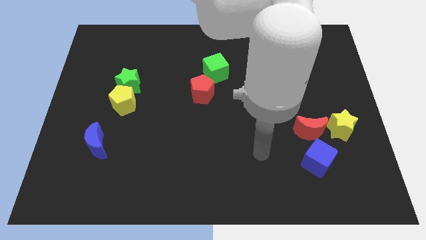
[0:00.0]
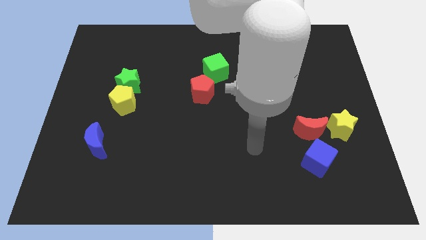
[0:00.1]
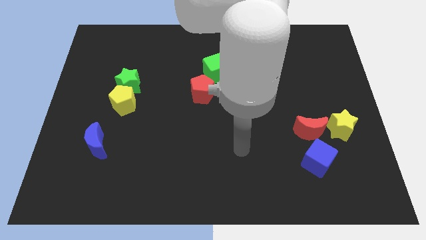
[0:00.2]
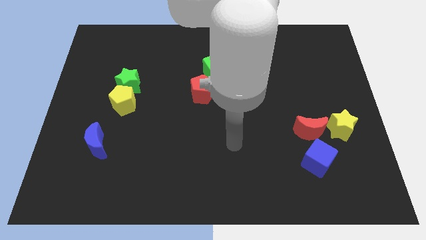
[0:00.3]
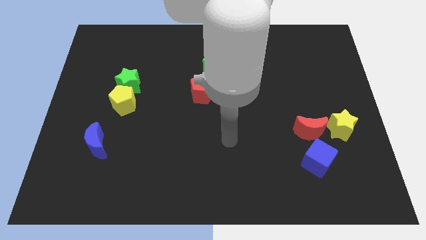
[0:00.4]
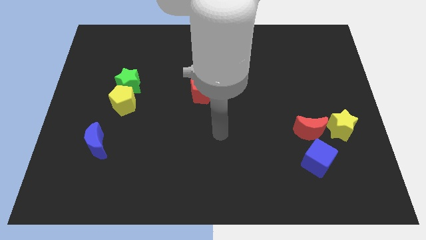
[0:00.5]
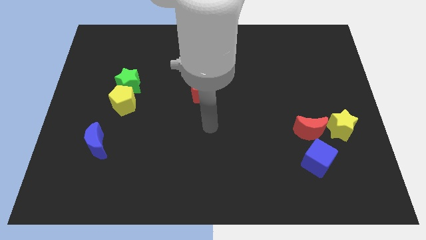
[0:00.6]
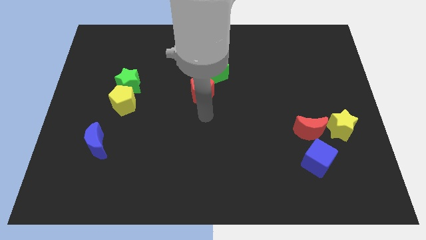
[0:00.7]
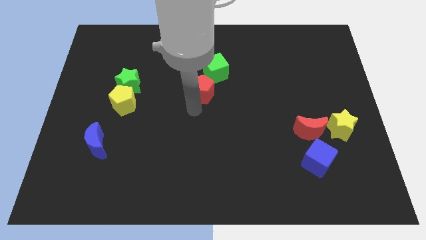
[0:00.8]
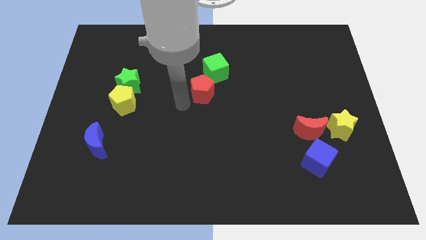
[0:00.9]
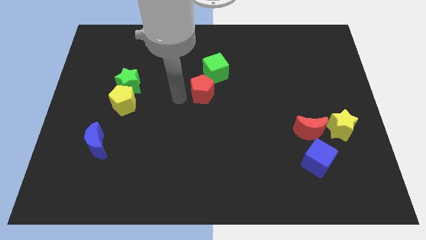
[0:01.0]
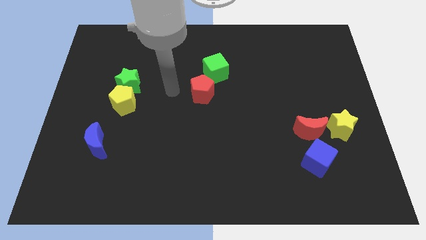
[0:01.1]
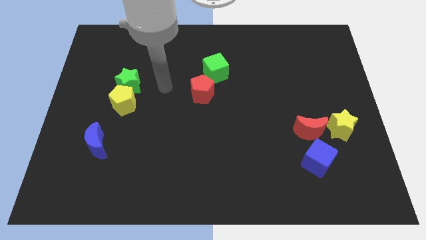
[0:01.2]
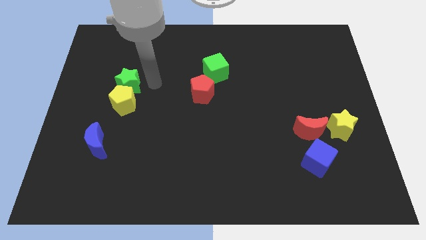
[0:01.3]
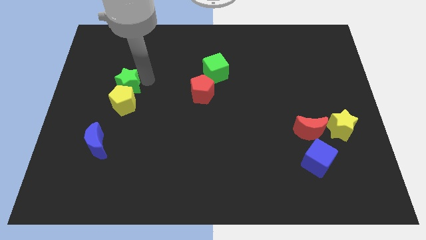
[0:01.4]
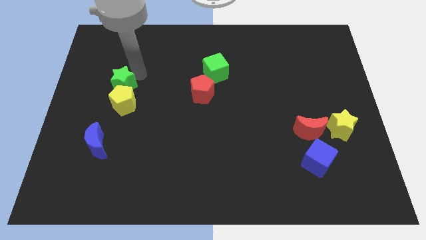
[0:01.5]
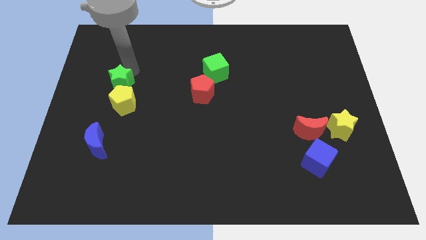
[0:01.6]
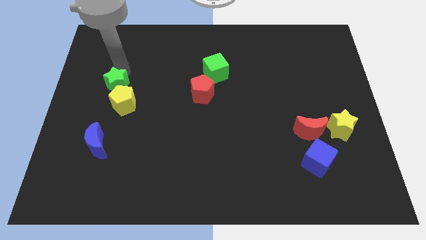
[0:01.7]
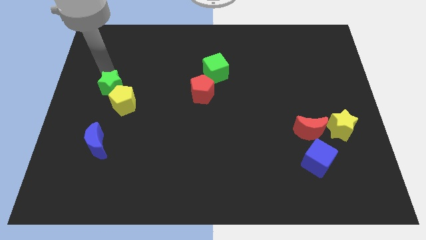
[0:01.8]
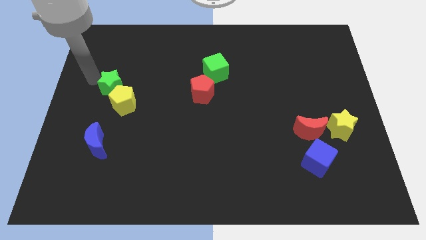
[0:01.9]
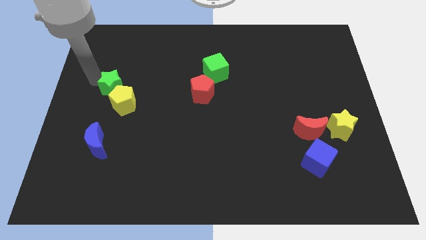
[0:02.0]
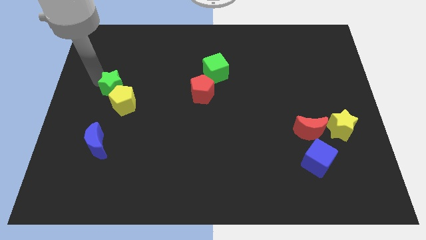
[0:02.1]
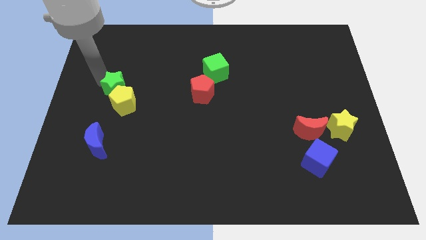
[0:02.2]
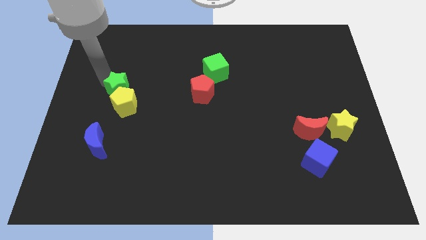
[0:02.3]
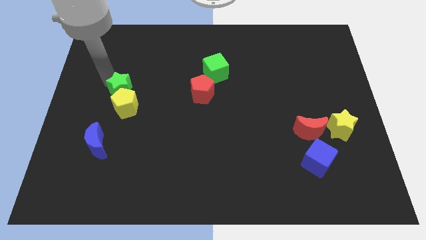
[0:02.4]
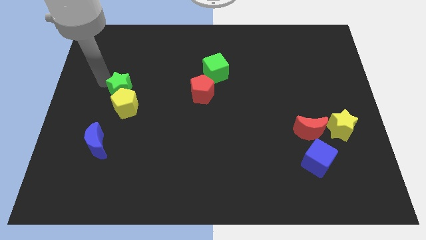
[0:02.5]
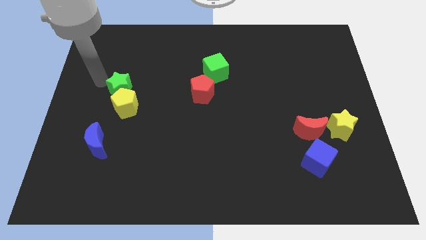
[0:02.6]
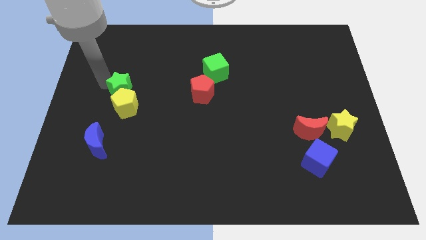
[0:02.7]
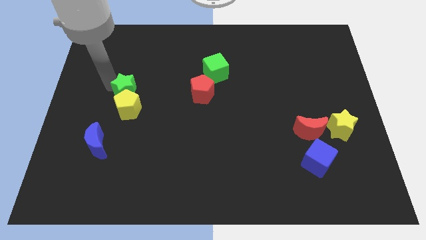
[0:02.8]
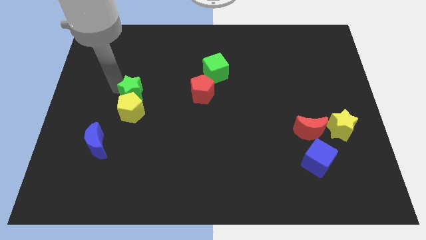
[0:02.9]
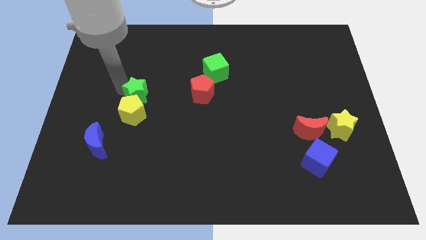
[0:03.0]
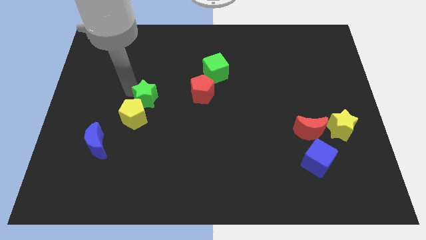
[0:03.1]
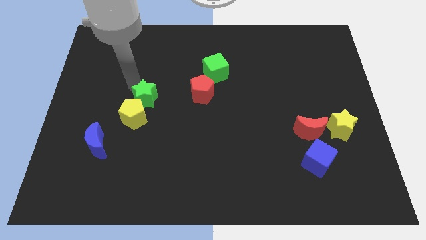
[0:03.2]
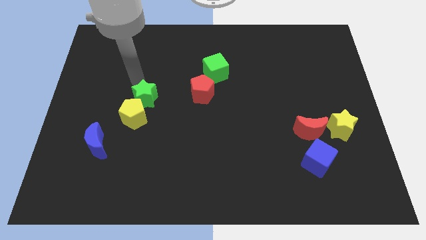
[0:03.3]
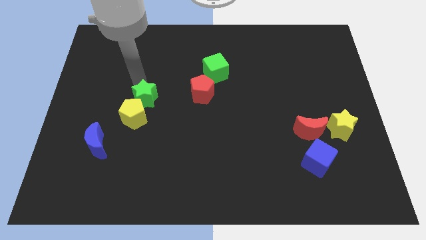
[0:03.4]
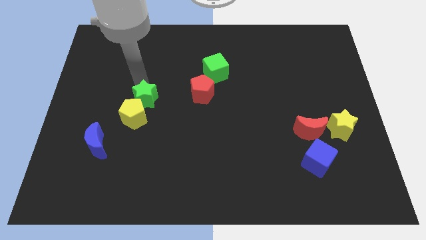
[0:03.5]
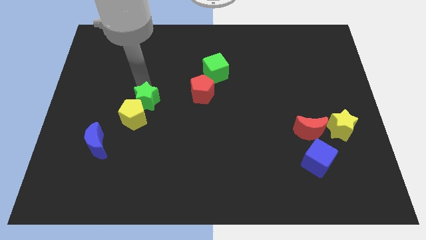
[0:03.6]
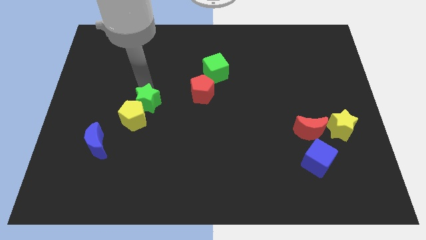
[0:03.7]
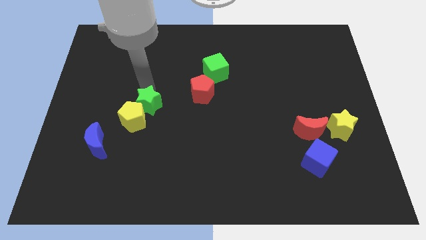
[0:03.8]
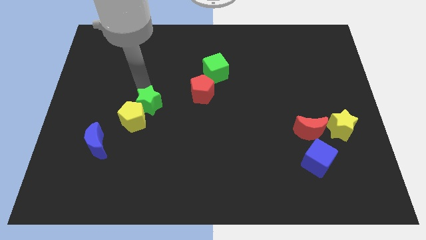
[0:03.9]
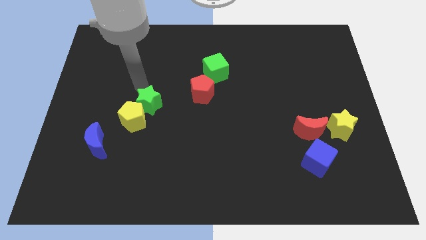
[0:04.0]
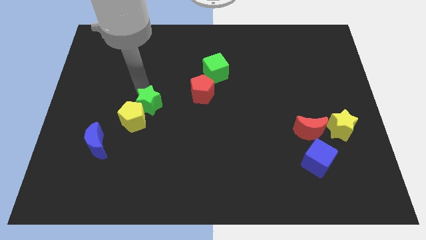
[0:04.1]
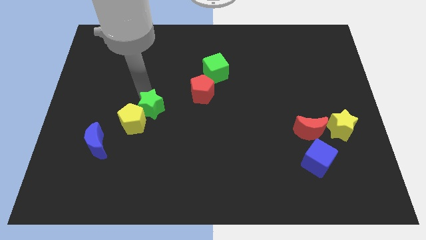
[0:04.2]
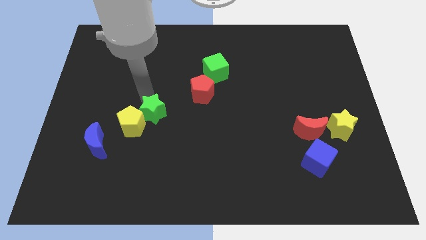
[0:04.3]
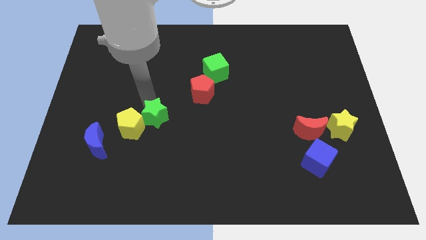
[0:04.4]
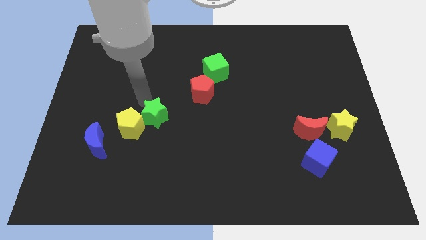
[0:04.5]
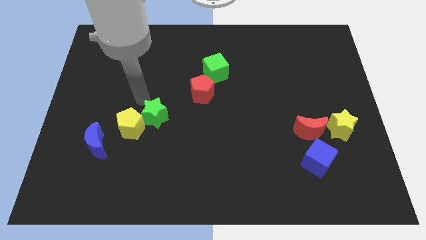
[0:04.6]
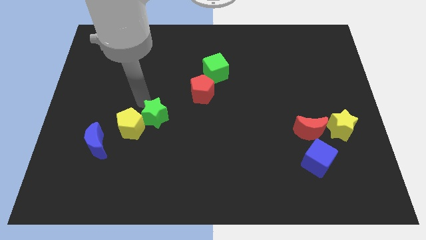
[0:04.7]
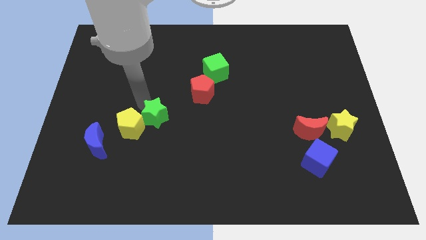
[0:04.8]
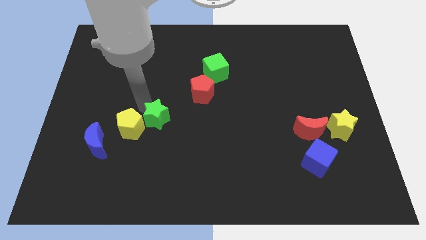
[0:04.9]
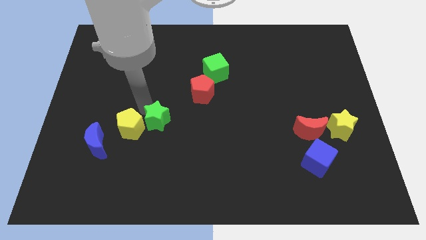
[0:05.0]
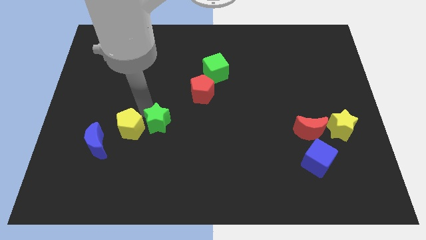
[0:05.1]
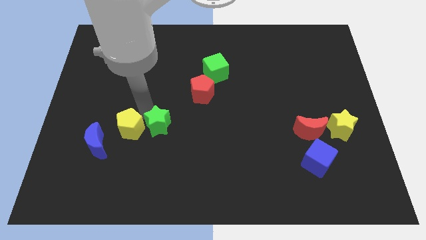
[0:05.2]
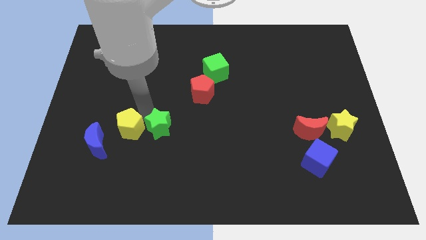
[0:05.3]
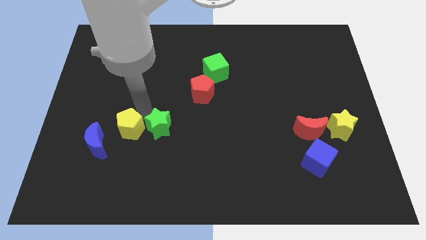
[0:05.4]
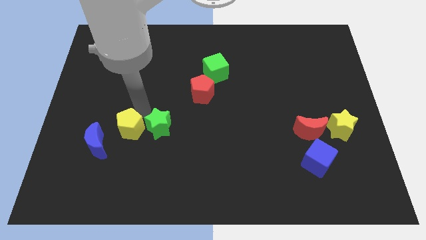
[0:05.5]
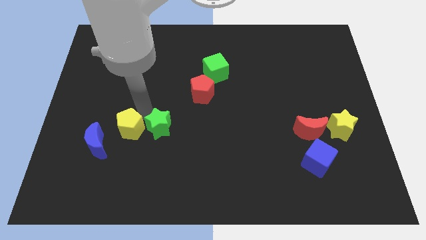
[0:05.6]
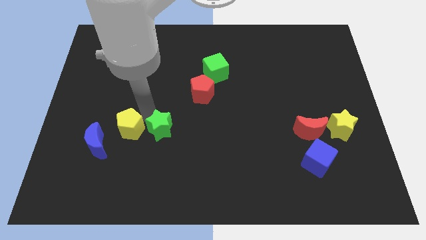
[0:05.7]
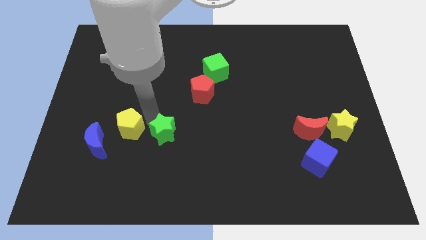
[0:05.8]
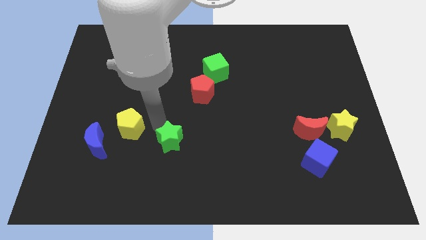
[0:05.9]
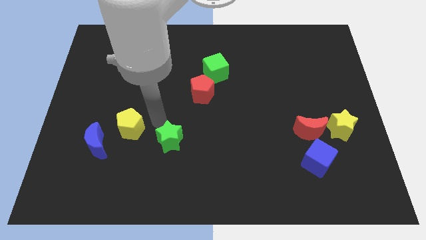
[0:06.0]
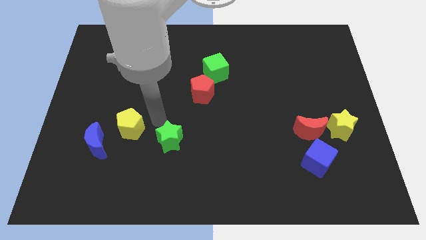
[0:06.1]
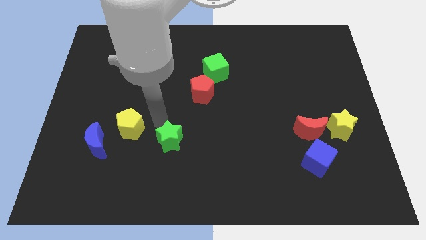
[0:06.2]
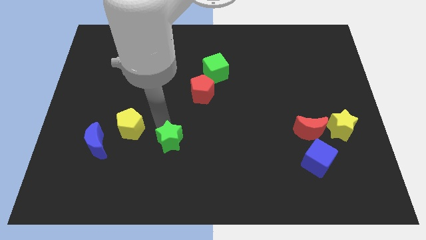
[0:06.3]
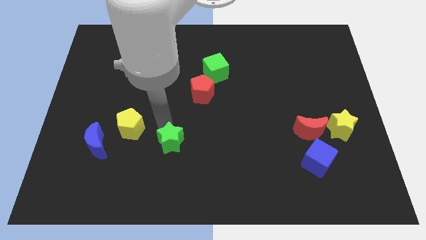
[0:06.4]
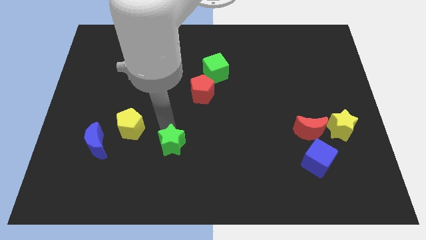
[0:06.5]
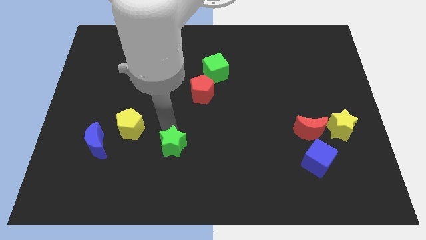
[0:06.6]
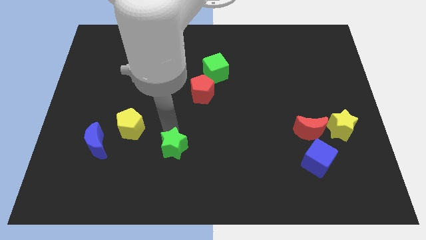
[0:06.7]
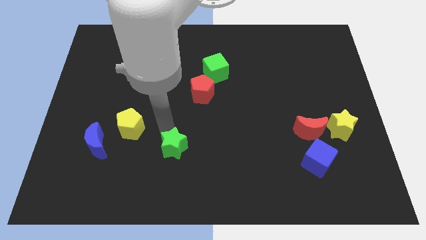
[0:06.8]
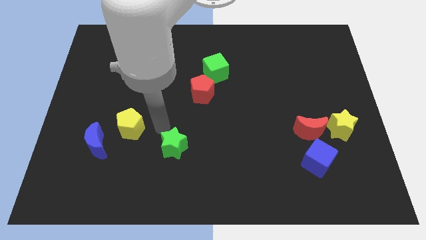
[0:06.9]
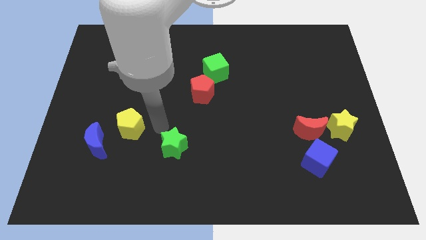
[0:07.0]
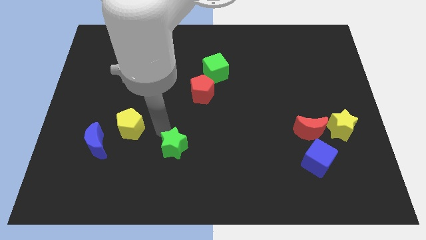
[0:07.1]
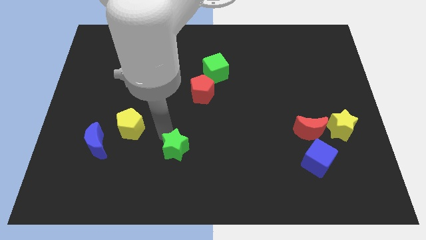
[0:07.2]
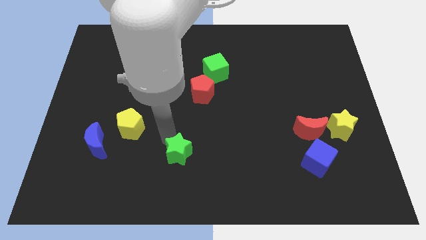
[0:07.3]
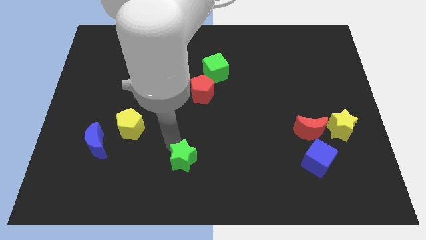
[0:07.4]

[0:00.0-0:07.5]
move the green star to the bottom side
